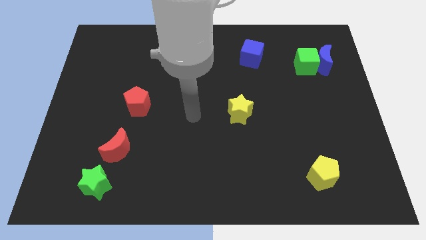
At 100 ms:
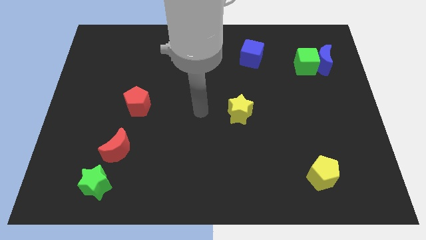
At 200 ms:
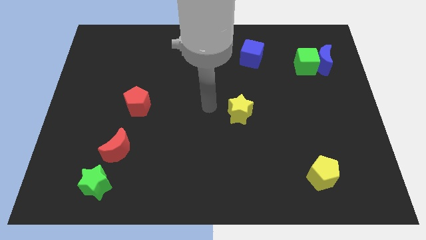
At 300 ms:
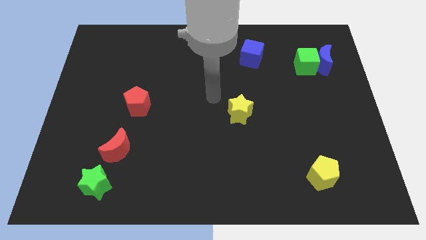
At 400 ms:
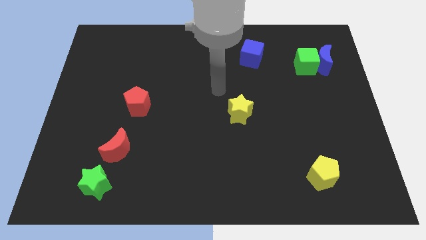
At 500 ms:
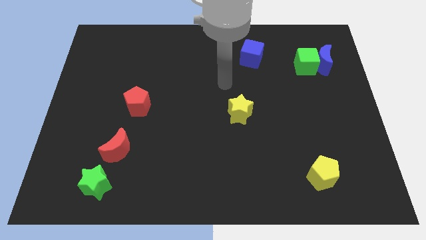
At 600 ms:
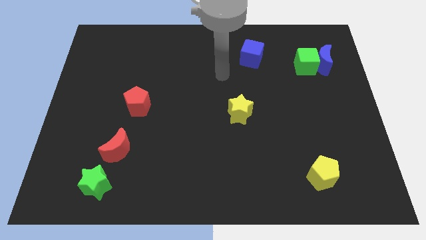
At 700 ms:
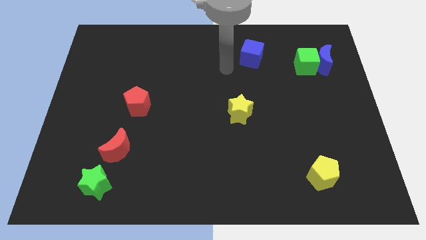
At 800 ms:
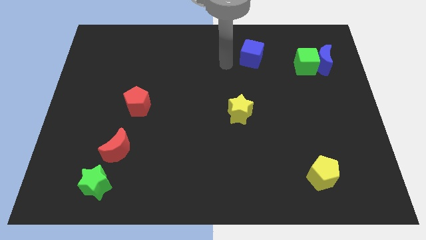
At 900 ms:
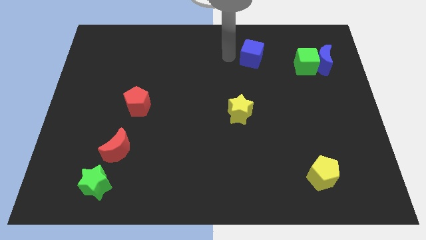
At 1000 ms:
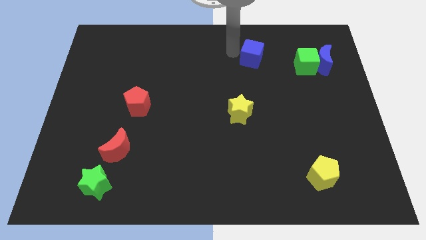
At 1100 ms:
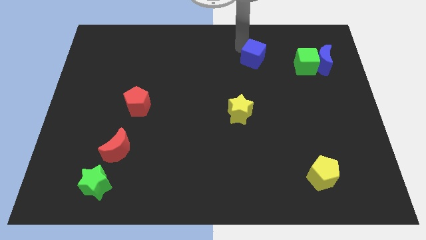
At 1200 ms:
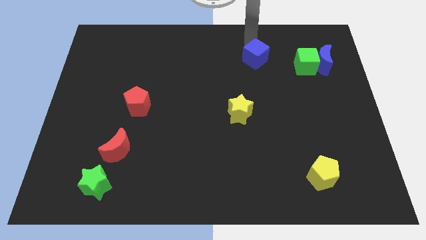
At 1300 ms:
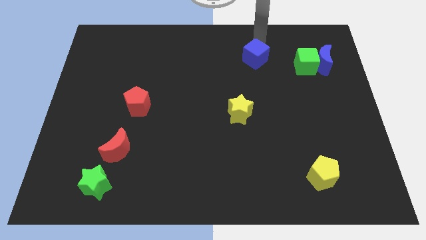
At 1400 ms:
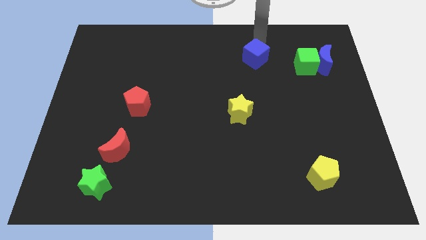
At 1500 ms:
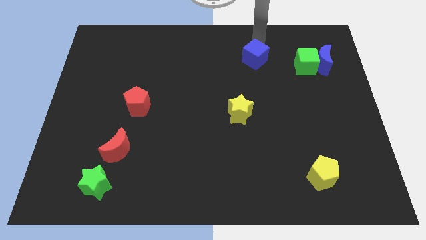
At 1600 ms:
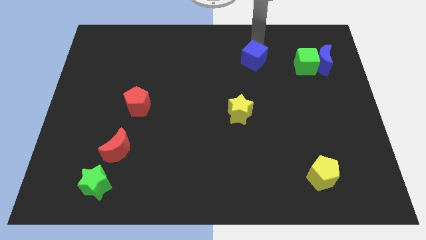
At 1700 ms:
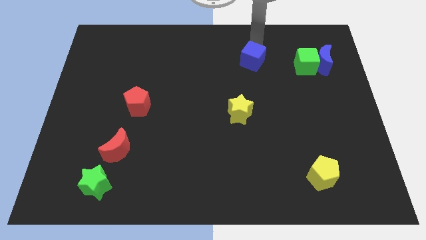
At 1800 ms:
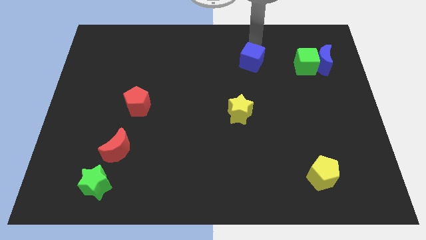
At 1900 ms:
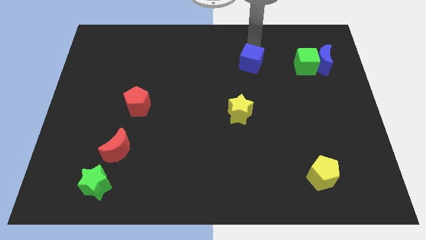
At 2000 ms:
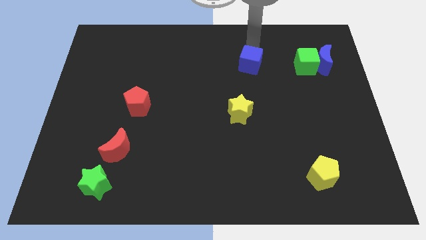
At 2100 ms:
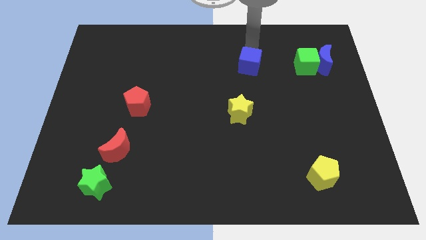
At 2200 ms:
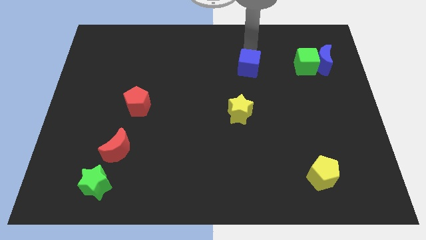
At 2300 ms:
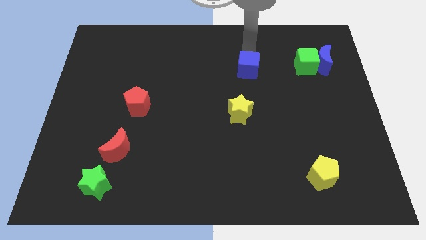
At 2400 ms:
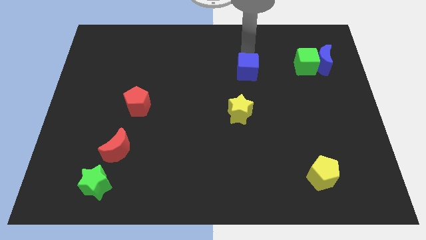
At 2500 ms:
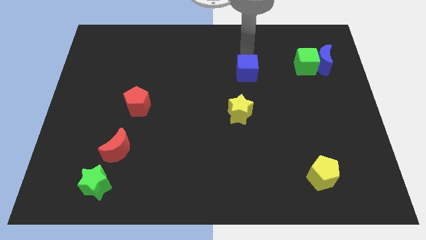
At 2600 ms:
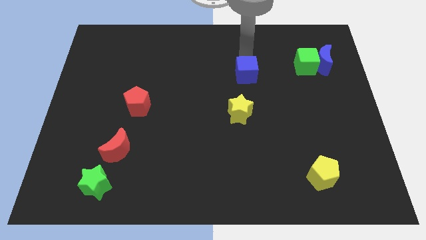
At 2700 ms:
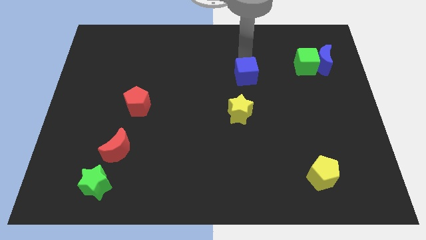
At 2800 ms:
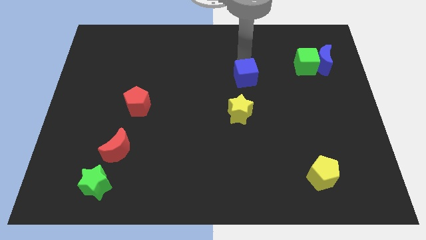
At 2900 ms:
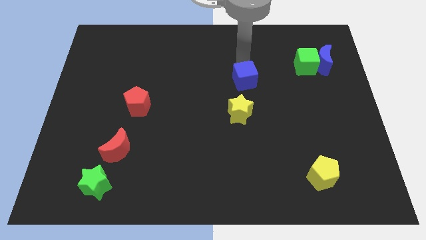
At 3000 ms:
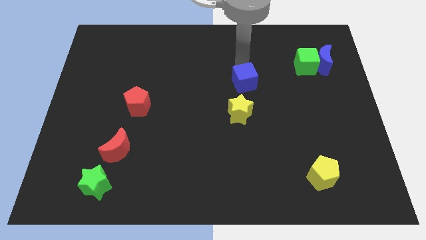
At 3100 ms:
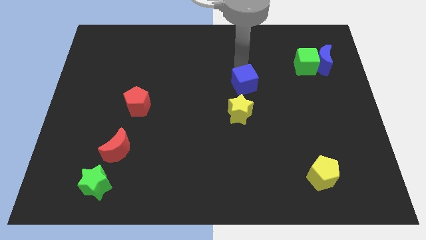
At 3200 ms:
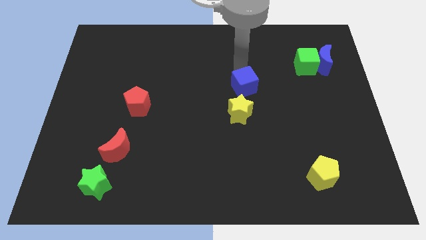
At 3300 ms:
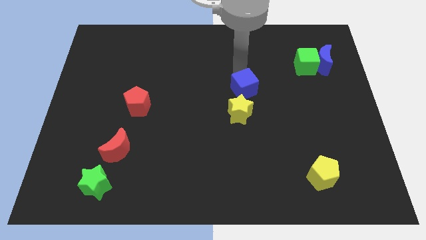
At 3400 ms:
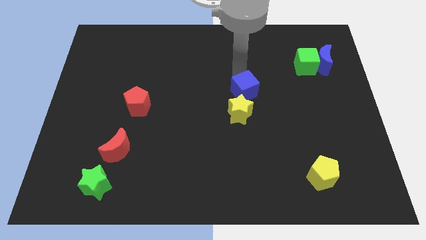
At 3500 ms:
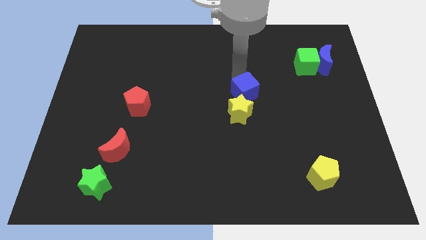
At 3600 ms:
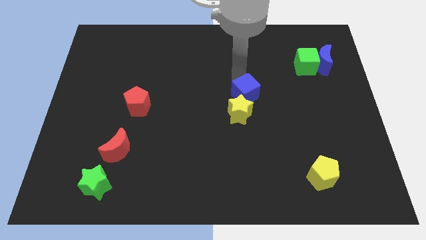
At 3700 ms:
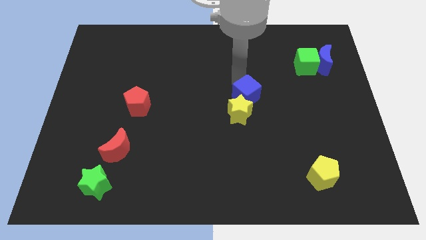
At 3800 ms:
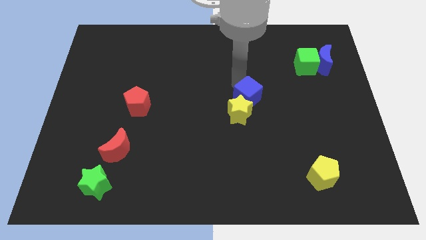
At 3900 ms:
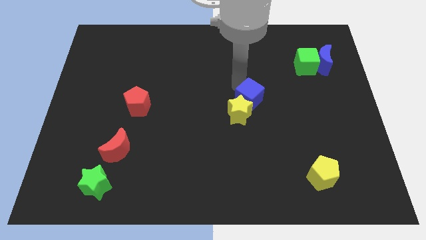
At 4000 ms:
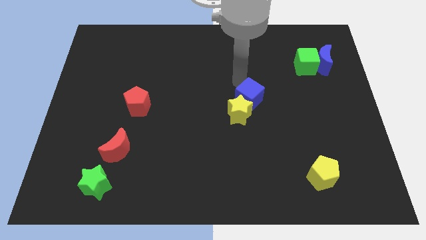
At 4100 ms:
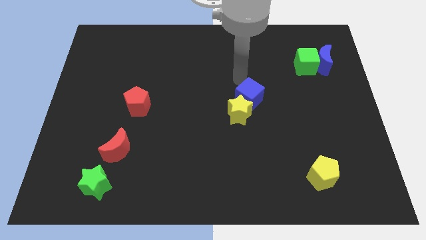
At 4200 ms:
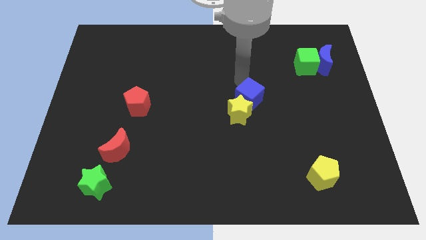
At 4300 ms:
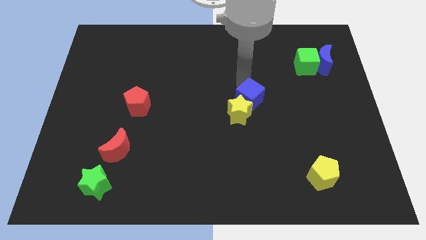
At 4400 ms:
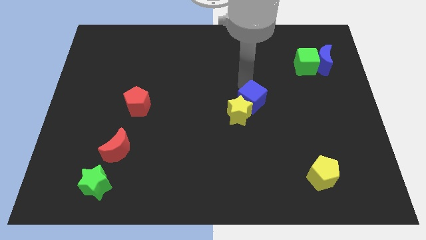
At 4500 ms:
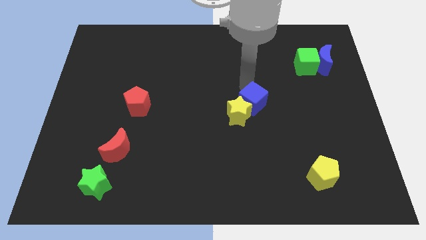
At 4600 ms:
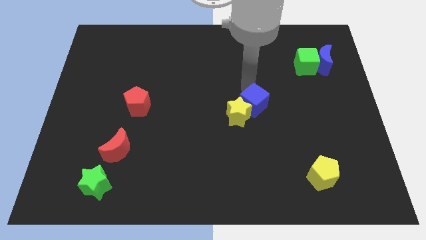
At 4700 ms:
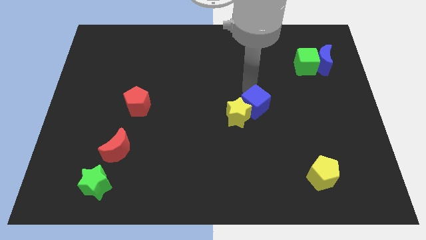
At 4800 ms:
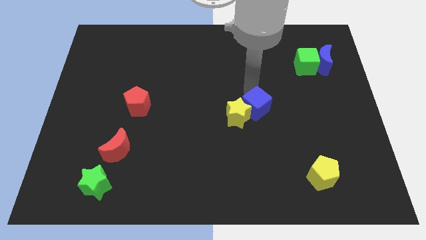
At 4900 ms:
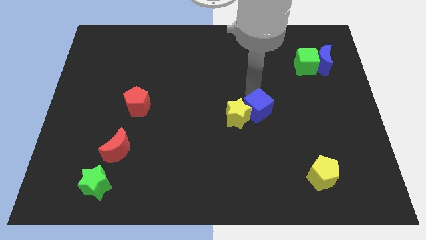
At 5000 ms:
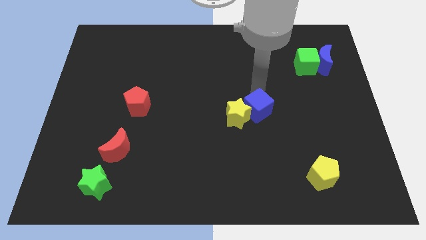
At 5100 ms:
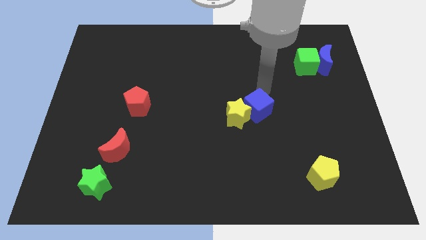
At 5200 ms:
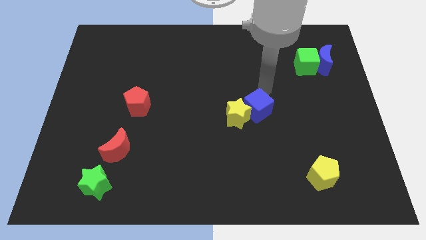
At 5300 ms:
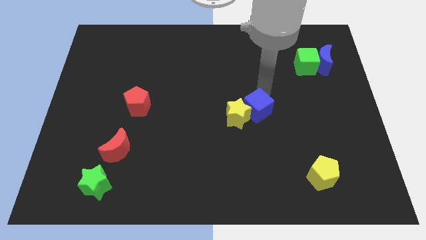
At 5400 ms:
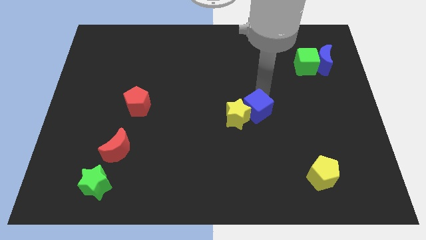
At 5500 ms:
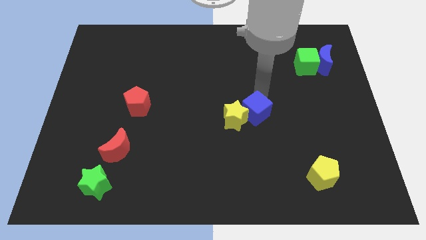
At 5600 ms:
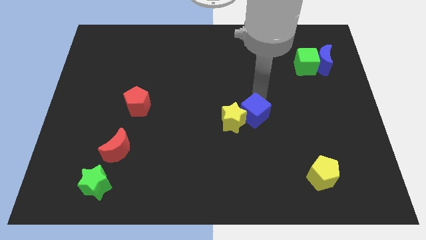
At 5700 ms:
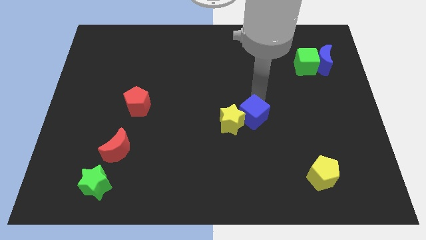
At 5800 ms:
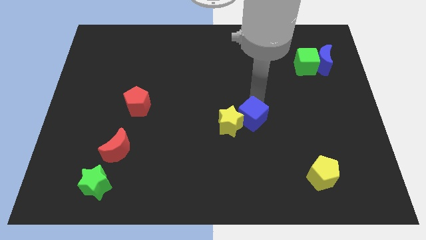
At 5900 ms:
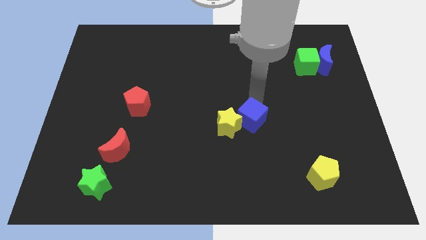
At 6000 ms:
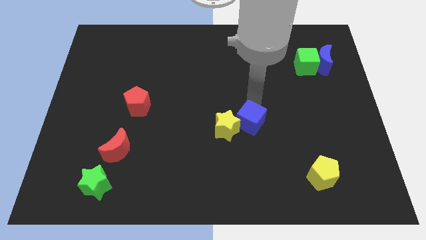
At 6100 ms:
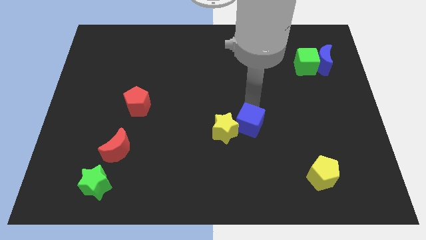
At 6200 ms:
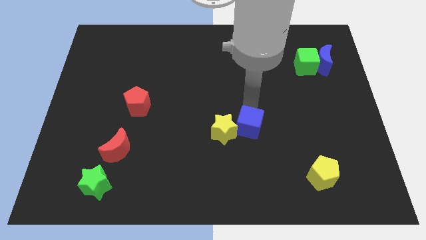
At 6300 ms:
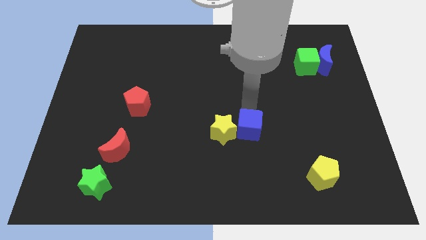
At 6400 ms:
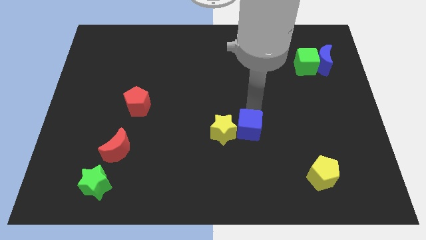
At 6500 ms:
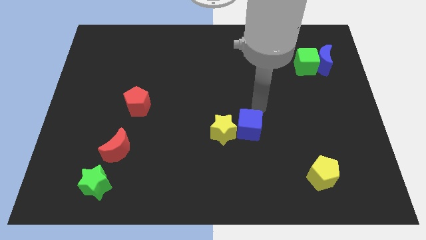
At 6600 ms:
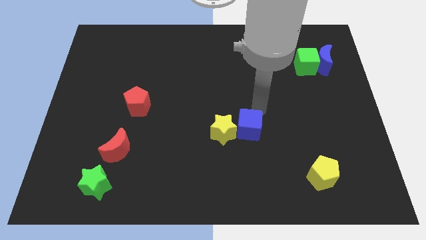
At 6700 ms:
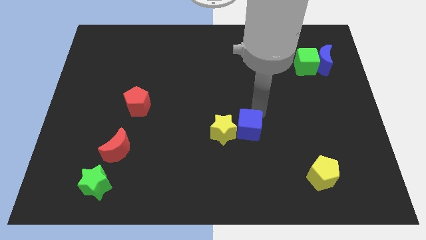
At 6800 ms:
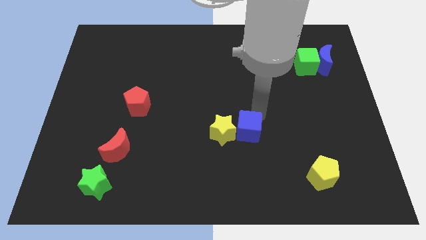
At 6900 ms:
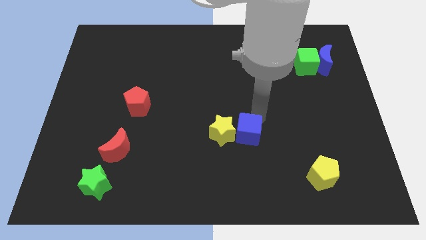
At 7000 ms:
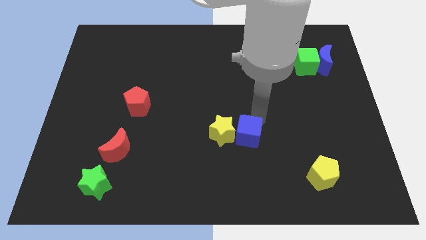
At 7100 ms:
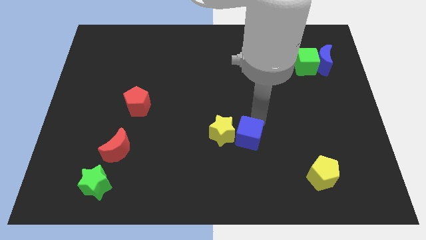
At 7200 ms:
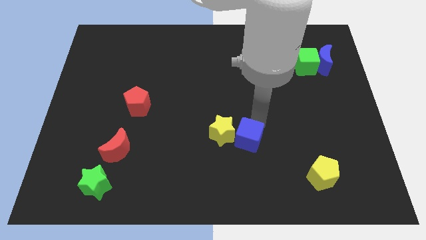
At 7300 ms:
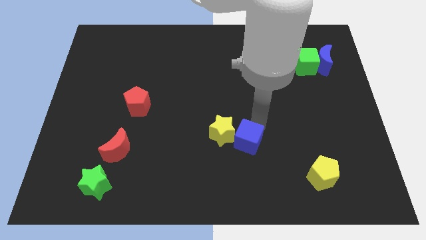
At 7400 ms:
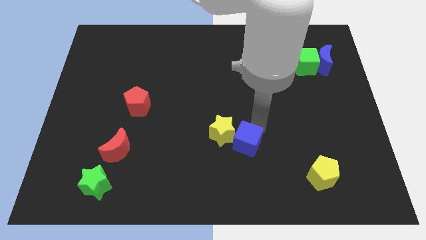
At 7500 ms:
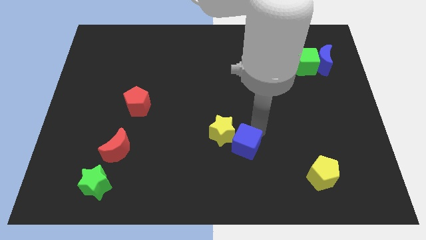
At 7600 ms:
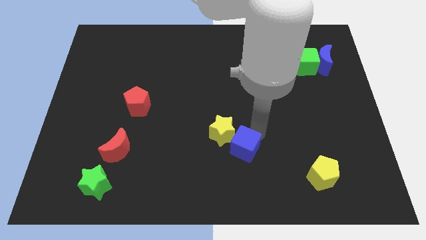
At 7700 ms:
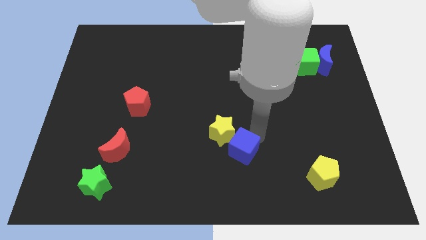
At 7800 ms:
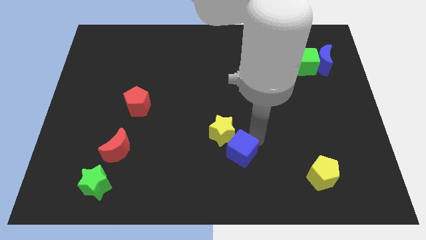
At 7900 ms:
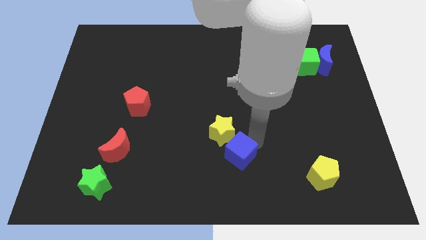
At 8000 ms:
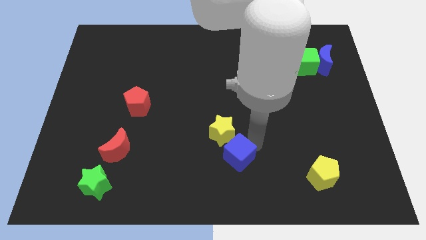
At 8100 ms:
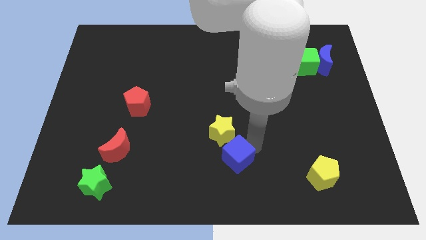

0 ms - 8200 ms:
slide the blue cube to the bottom
